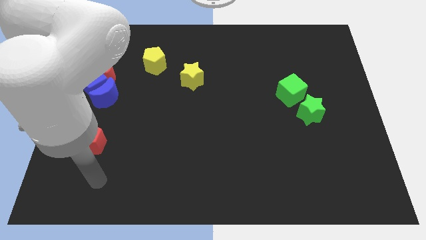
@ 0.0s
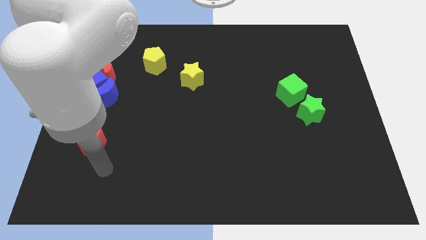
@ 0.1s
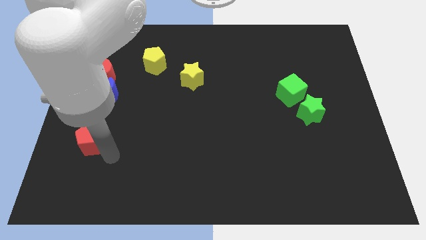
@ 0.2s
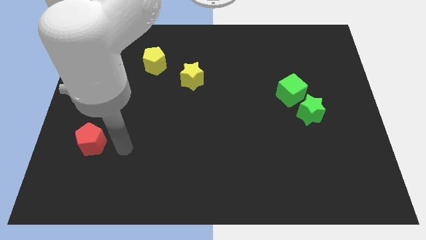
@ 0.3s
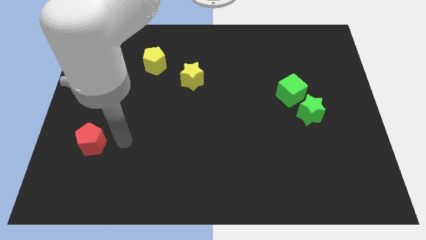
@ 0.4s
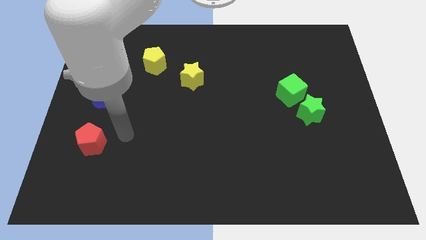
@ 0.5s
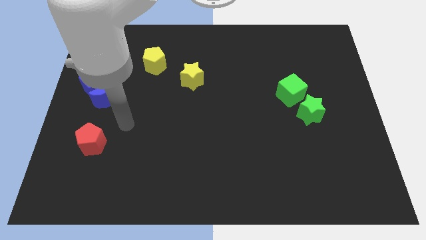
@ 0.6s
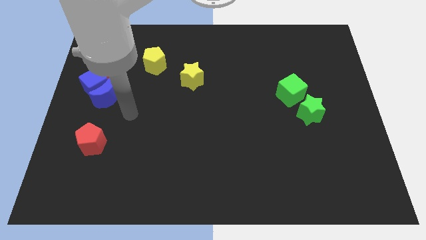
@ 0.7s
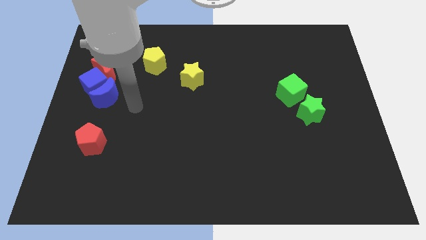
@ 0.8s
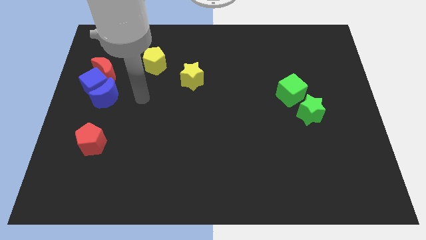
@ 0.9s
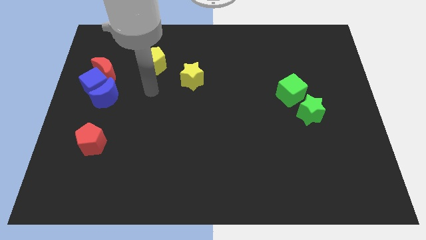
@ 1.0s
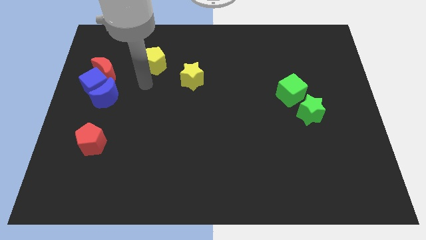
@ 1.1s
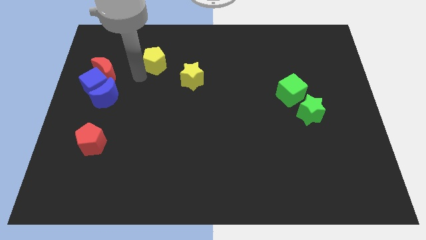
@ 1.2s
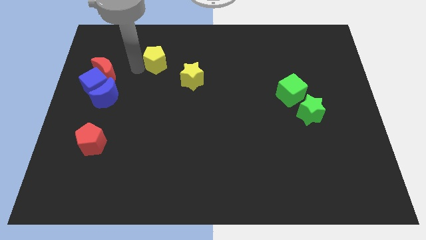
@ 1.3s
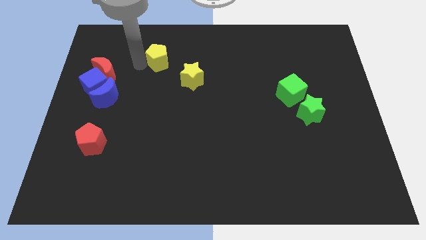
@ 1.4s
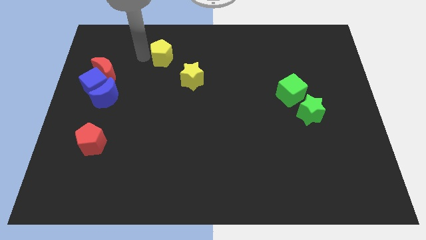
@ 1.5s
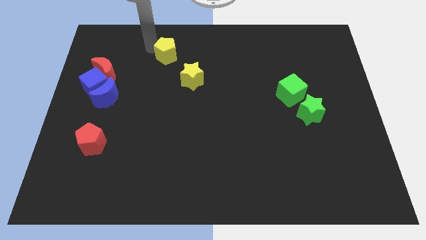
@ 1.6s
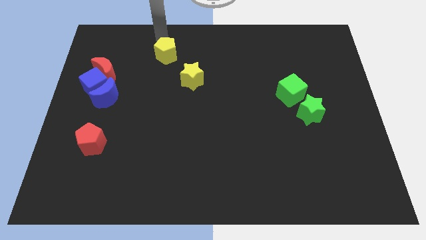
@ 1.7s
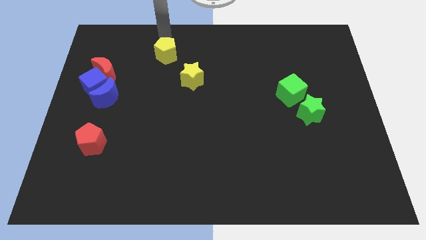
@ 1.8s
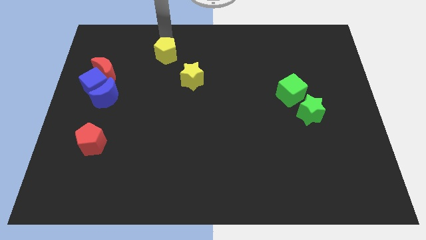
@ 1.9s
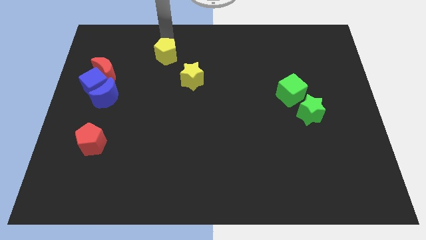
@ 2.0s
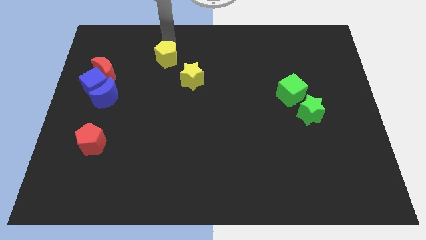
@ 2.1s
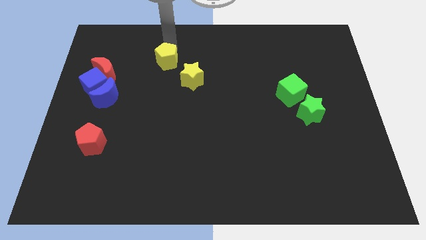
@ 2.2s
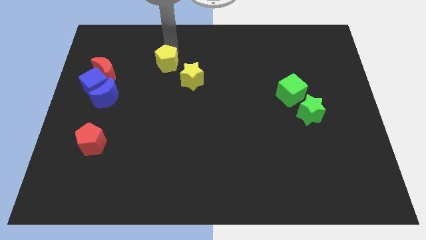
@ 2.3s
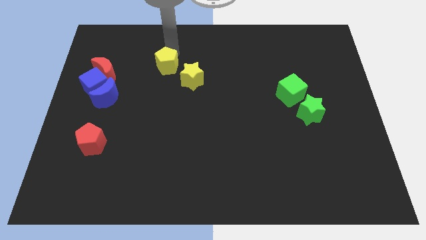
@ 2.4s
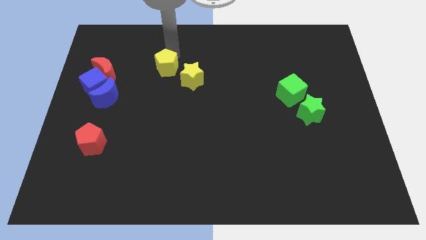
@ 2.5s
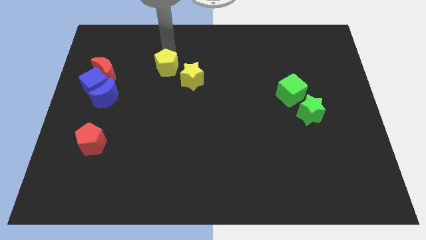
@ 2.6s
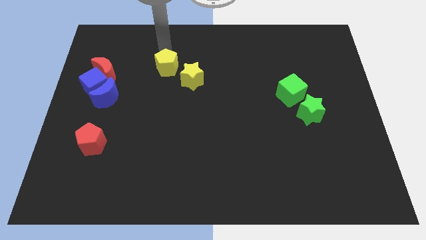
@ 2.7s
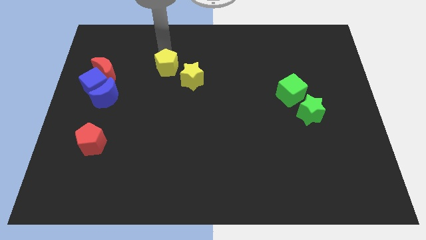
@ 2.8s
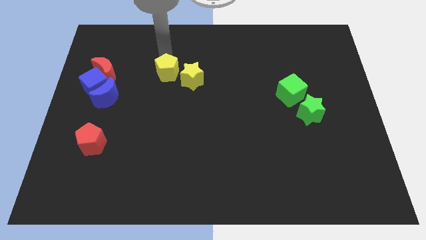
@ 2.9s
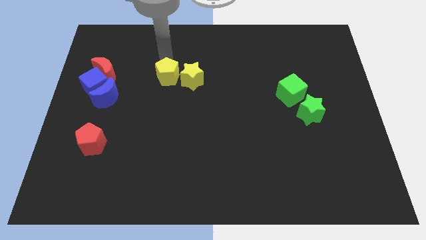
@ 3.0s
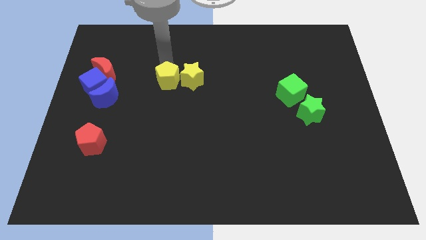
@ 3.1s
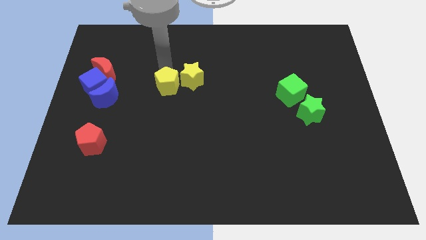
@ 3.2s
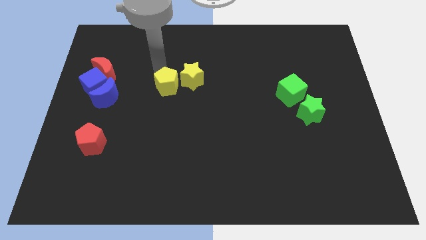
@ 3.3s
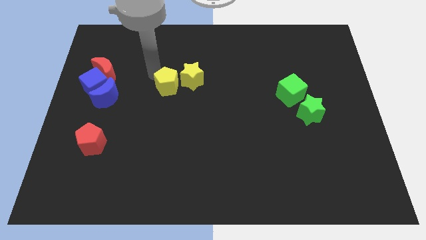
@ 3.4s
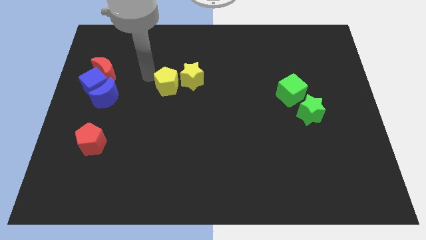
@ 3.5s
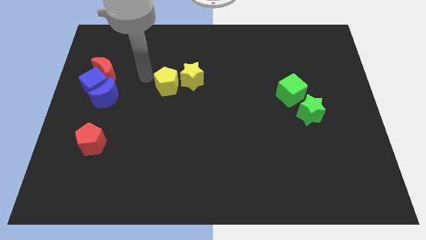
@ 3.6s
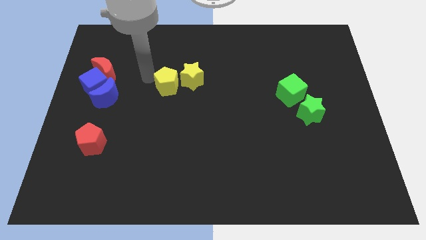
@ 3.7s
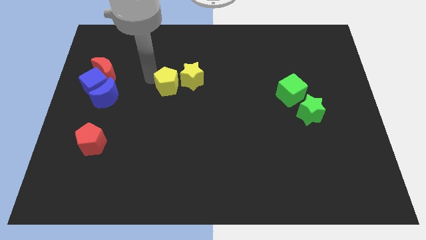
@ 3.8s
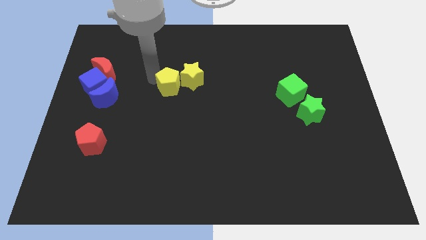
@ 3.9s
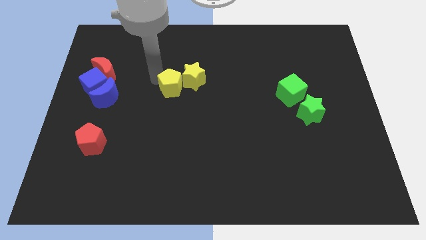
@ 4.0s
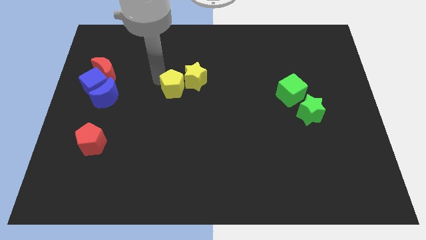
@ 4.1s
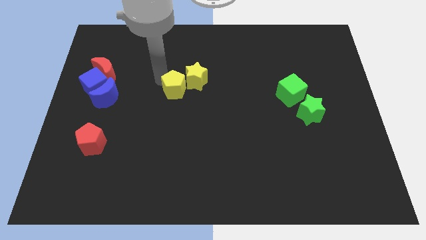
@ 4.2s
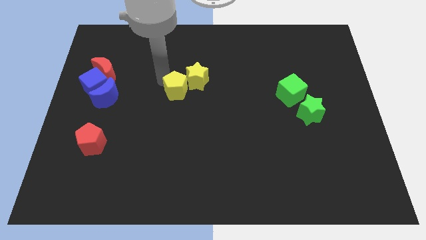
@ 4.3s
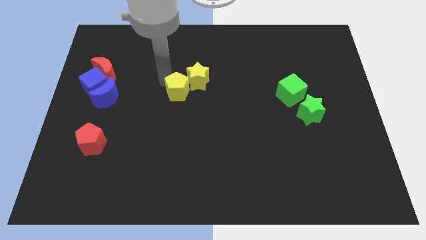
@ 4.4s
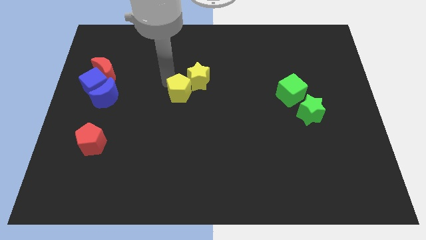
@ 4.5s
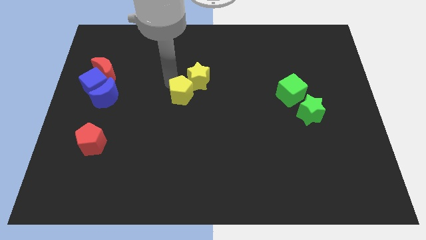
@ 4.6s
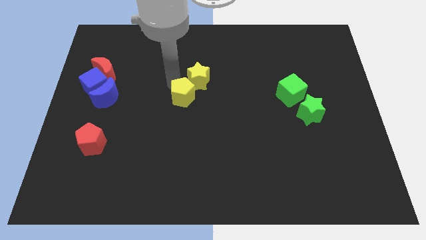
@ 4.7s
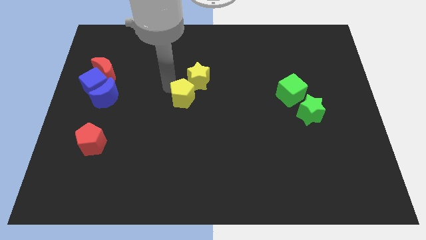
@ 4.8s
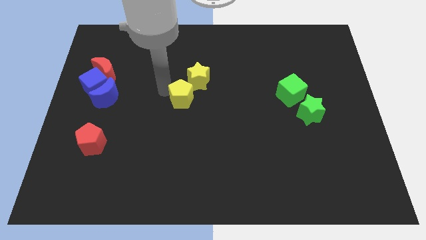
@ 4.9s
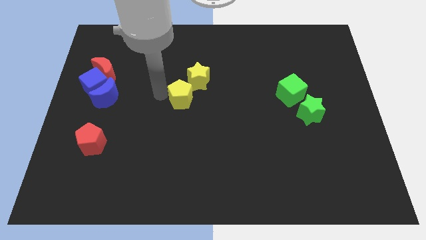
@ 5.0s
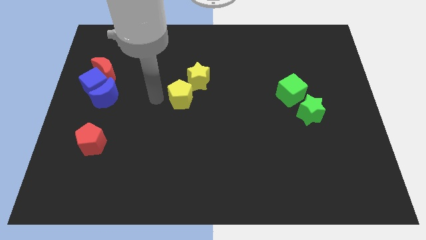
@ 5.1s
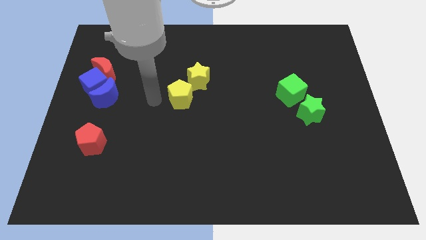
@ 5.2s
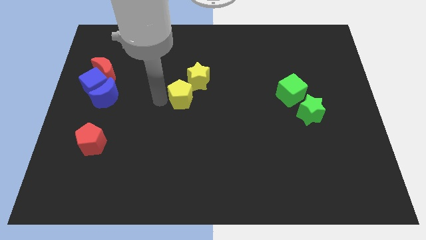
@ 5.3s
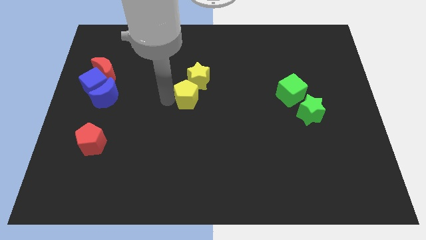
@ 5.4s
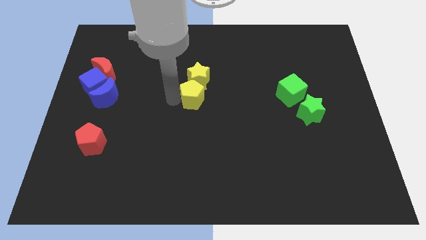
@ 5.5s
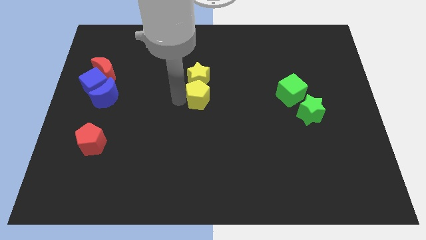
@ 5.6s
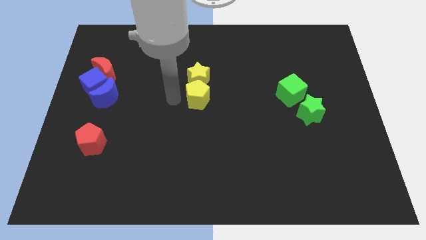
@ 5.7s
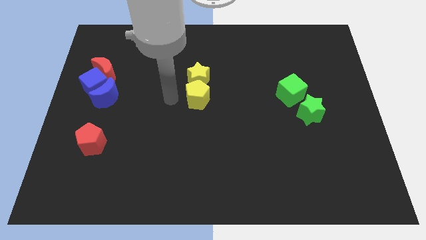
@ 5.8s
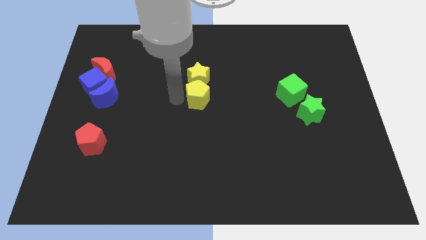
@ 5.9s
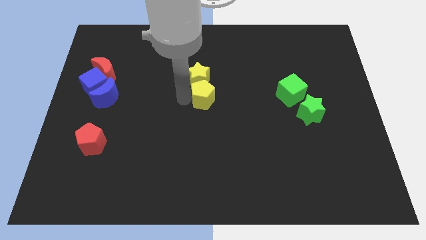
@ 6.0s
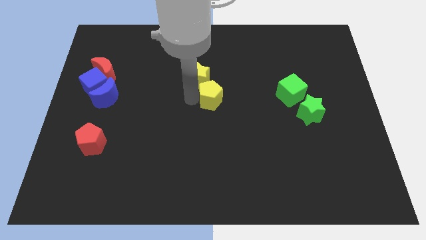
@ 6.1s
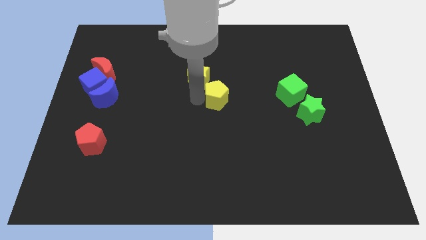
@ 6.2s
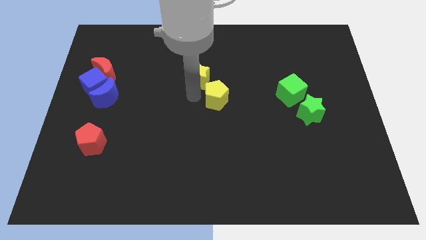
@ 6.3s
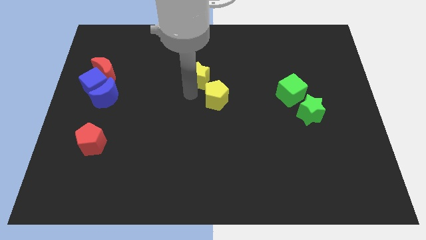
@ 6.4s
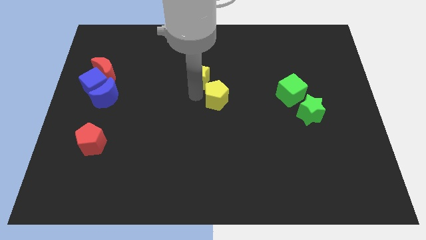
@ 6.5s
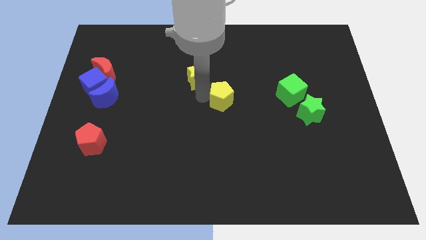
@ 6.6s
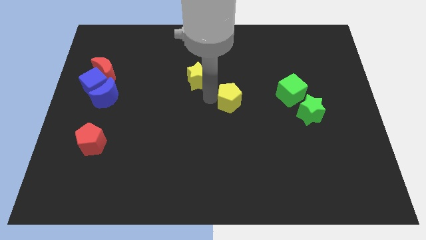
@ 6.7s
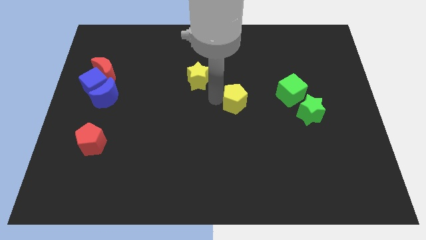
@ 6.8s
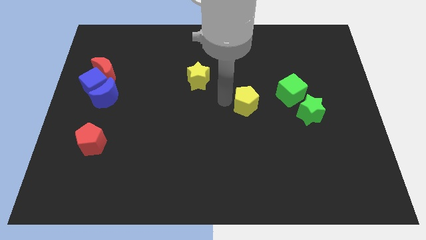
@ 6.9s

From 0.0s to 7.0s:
move the yellow pentagon to the left side of the green star
